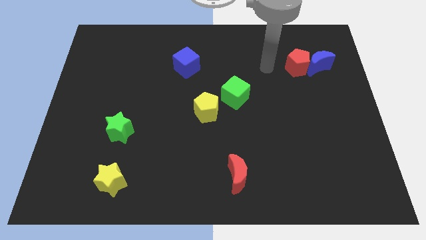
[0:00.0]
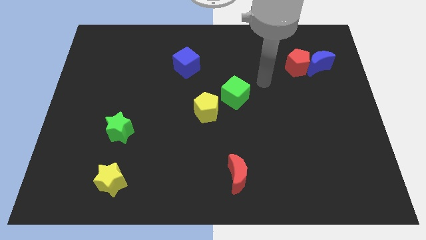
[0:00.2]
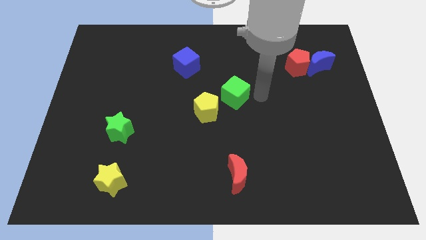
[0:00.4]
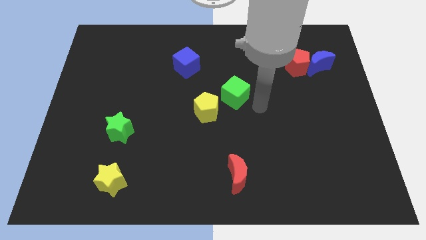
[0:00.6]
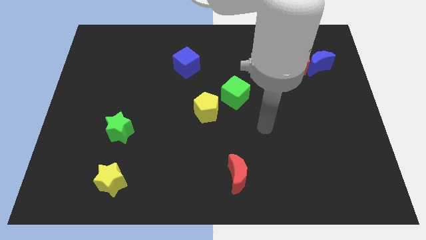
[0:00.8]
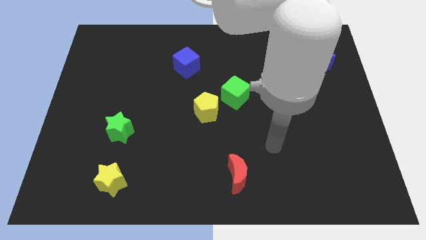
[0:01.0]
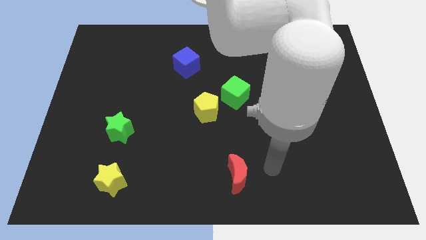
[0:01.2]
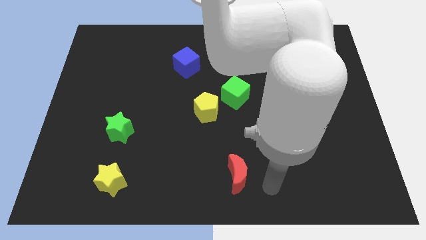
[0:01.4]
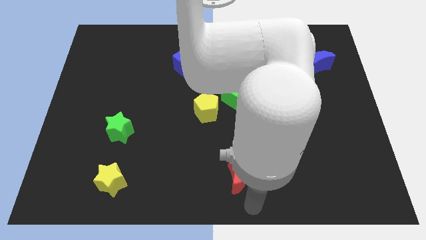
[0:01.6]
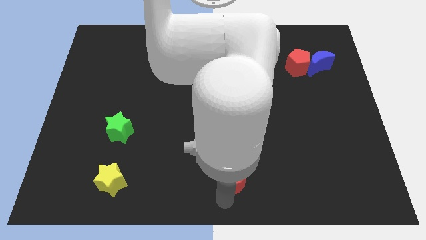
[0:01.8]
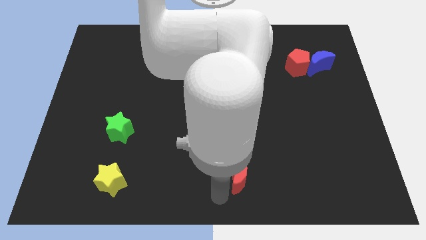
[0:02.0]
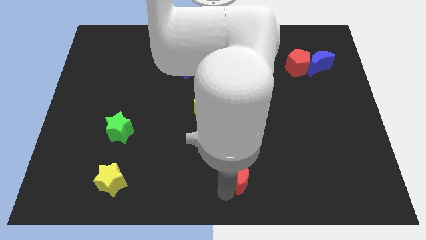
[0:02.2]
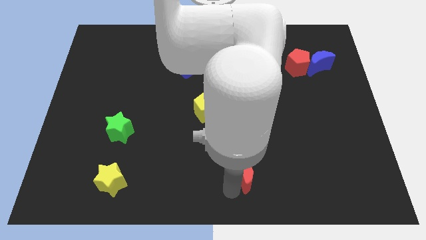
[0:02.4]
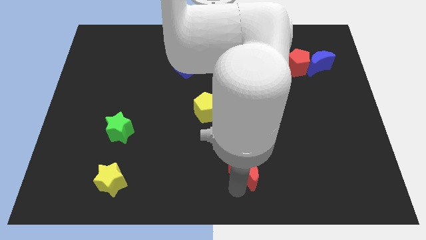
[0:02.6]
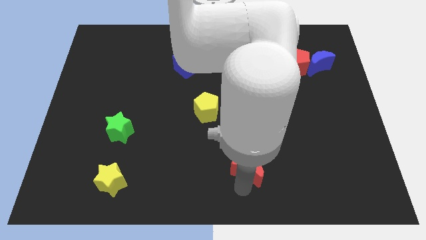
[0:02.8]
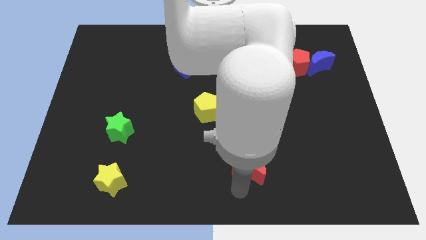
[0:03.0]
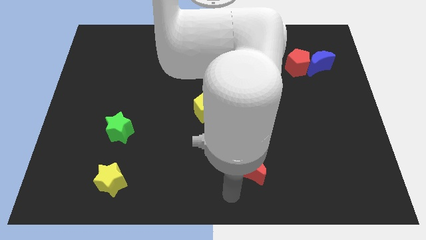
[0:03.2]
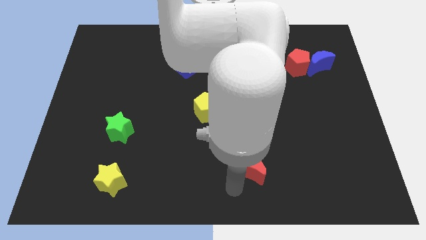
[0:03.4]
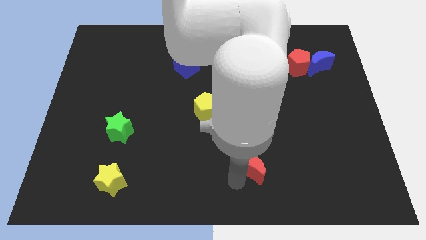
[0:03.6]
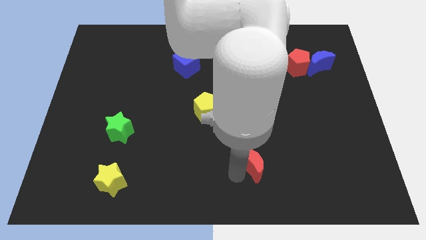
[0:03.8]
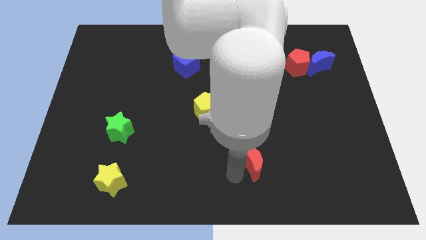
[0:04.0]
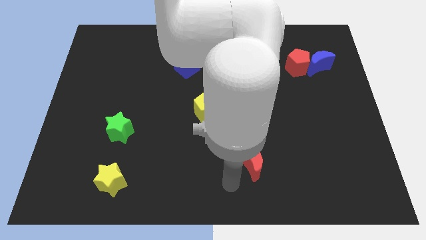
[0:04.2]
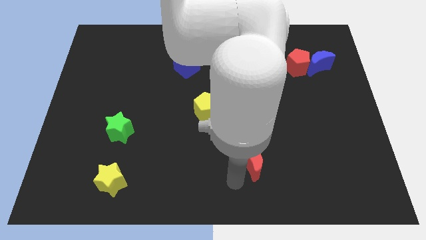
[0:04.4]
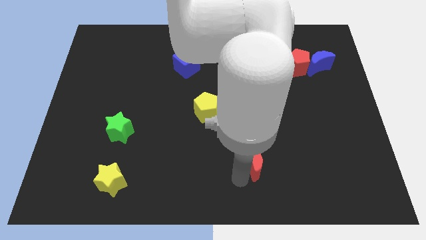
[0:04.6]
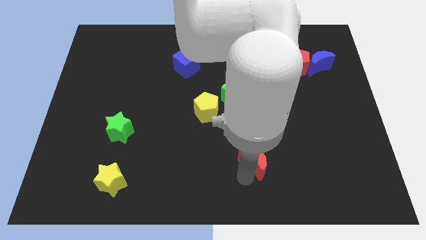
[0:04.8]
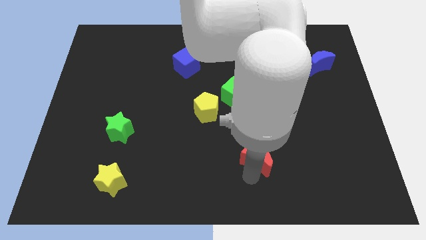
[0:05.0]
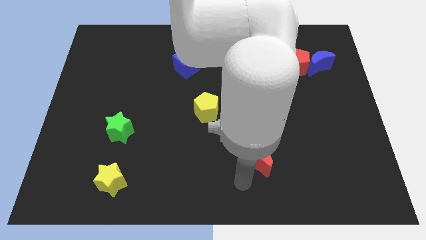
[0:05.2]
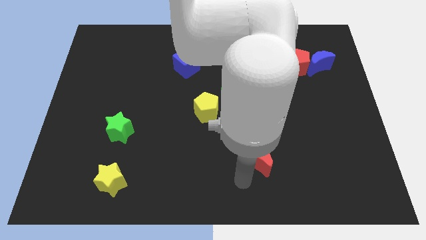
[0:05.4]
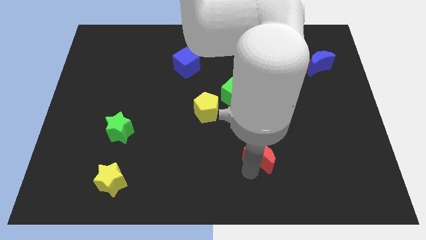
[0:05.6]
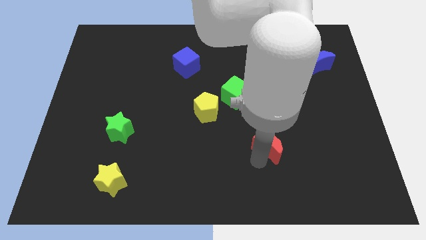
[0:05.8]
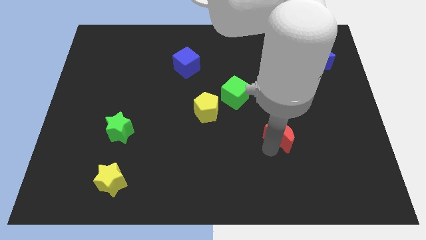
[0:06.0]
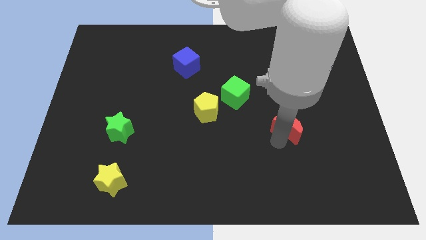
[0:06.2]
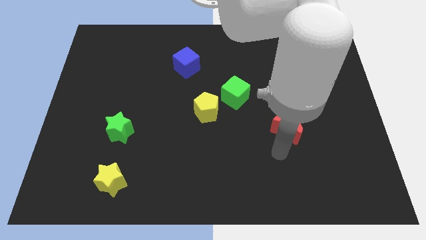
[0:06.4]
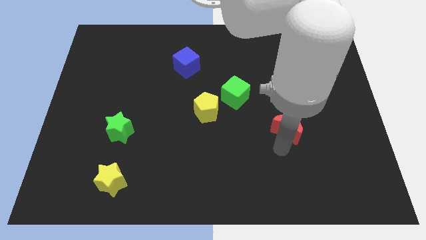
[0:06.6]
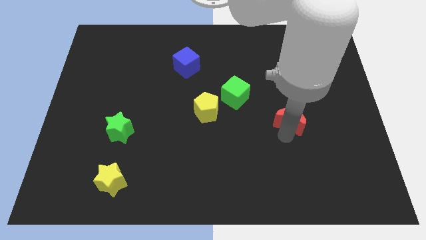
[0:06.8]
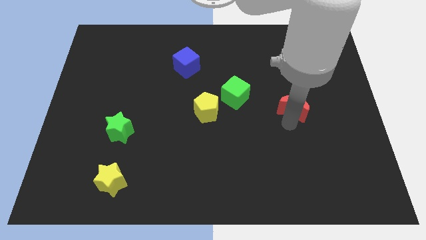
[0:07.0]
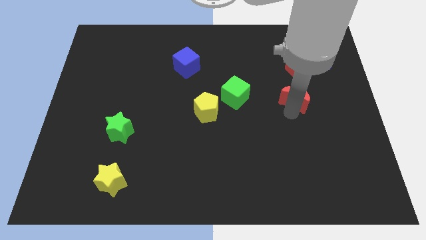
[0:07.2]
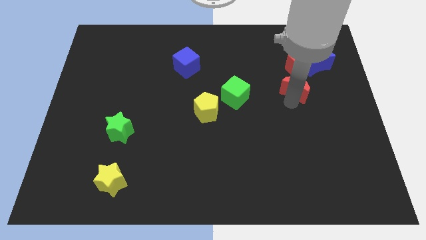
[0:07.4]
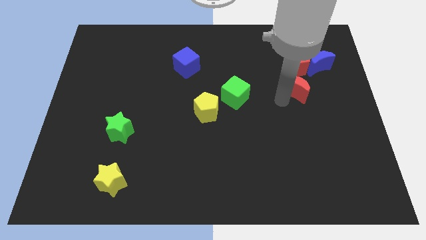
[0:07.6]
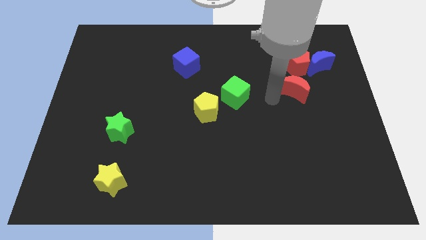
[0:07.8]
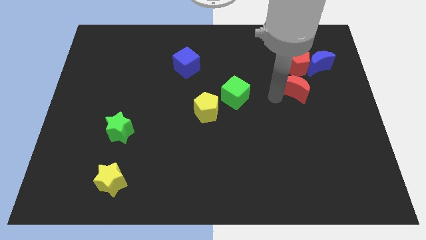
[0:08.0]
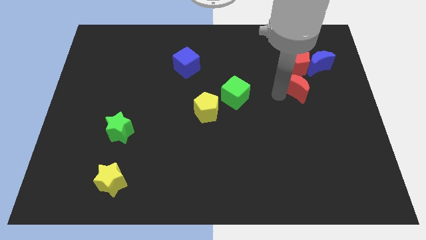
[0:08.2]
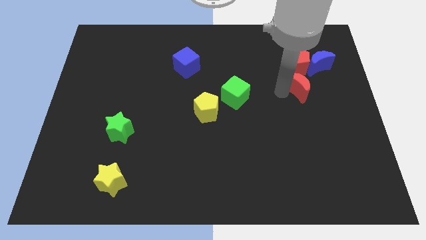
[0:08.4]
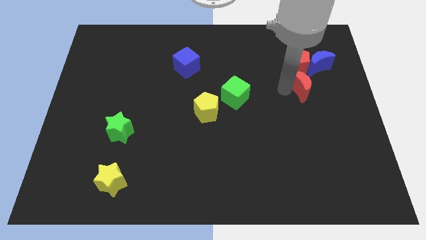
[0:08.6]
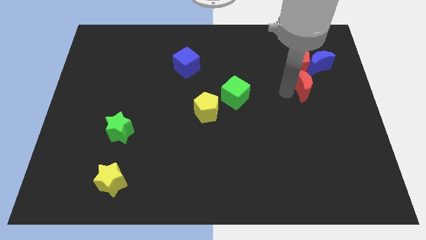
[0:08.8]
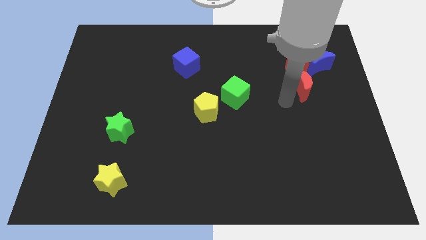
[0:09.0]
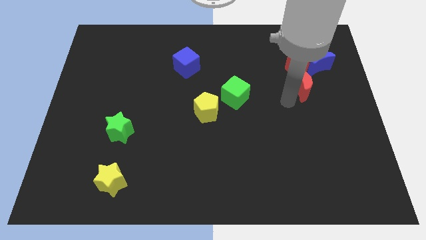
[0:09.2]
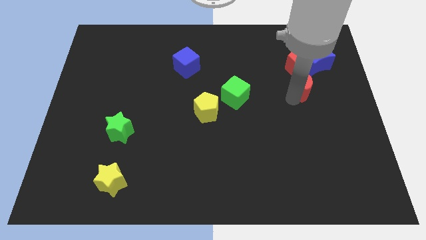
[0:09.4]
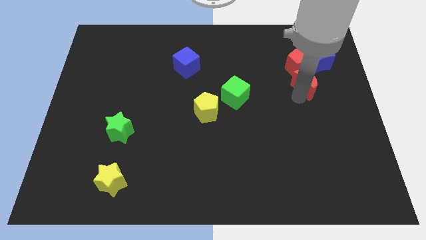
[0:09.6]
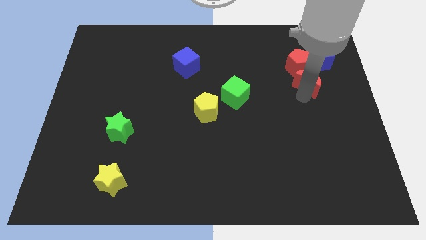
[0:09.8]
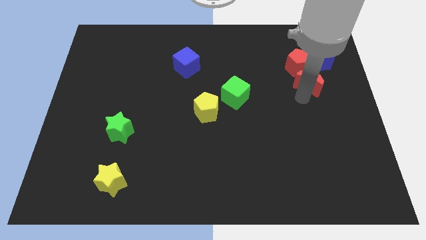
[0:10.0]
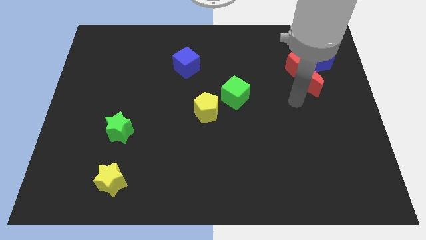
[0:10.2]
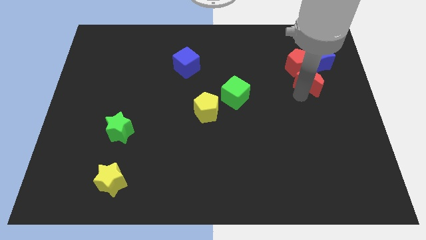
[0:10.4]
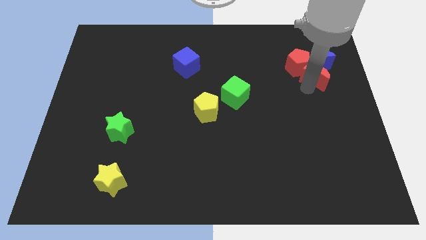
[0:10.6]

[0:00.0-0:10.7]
move the red moon towards the blue moon

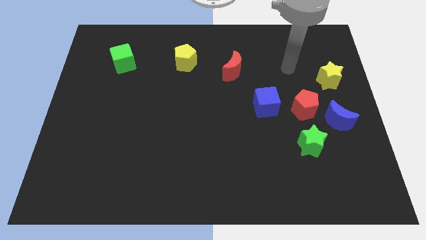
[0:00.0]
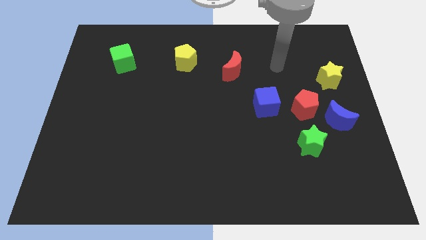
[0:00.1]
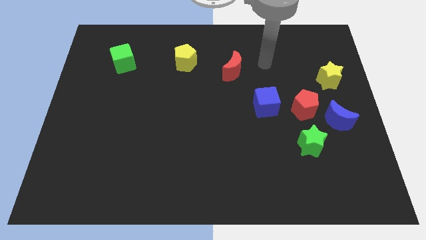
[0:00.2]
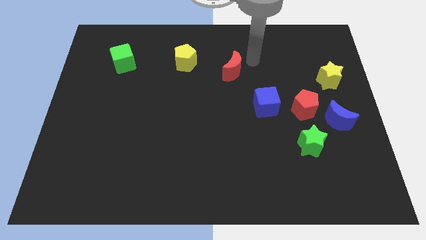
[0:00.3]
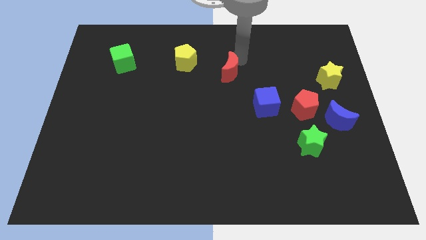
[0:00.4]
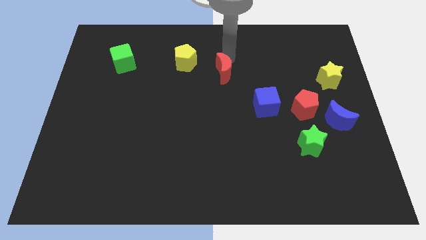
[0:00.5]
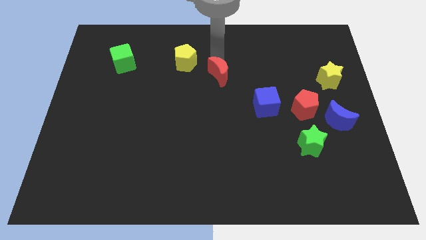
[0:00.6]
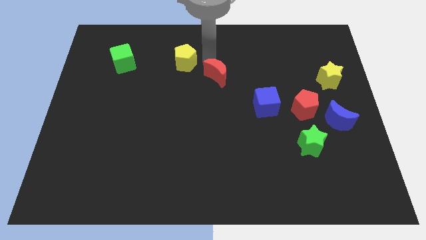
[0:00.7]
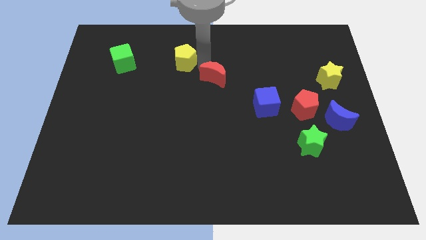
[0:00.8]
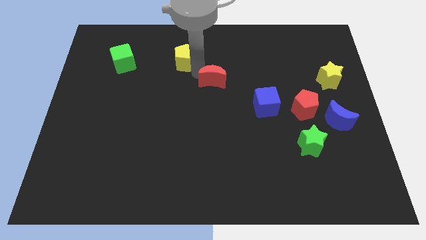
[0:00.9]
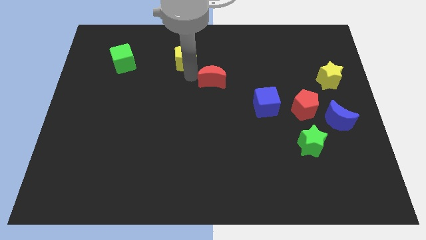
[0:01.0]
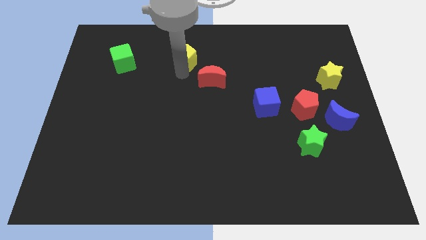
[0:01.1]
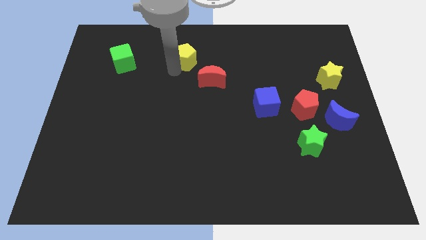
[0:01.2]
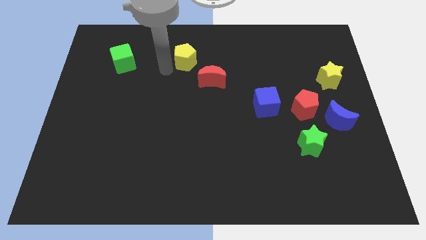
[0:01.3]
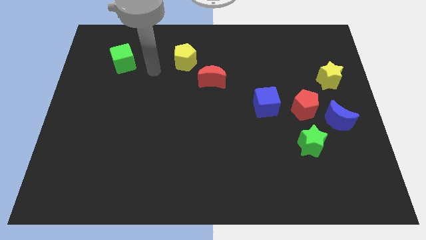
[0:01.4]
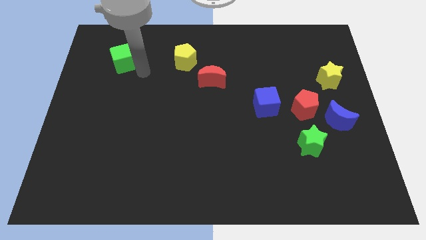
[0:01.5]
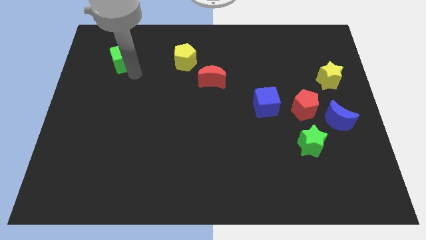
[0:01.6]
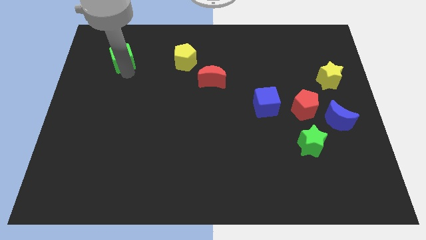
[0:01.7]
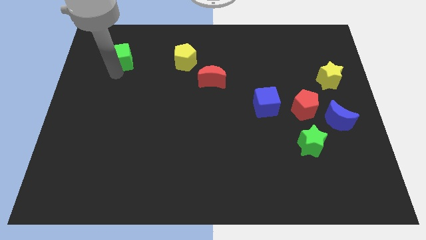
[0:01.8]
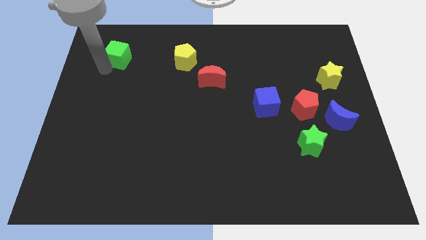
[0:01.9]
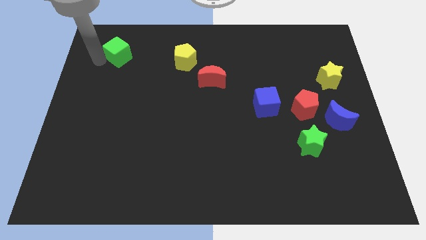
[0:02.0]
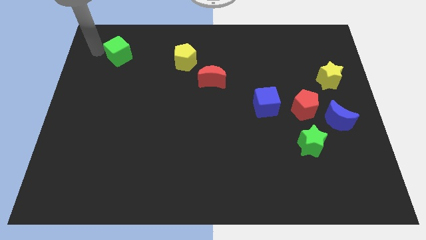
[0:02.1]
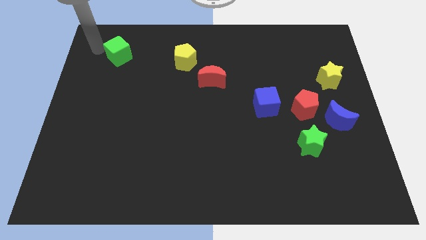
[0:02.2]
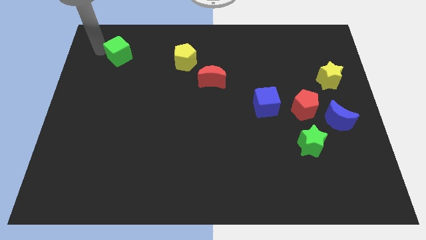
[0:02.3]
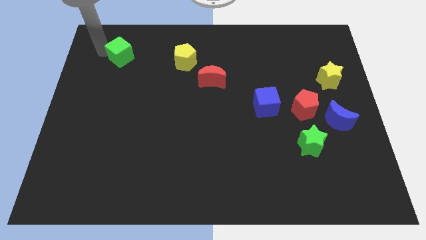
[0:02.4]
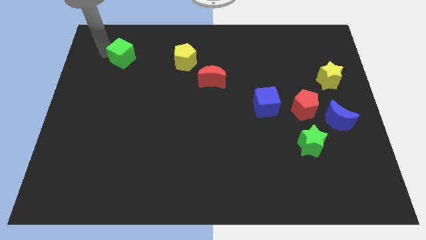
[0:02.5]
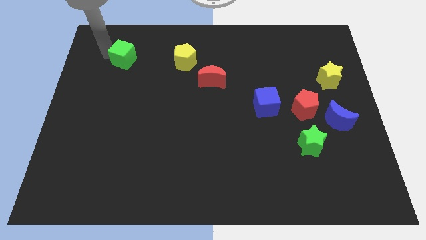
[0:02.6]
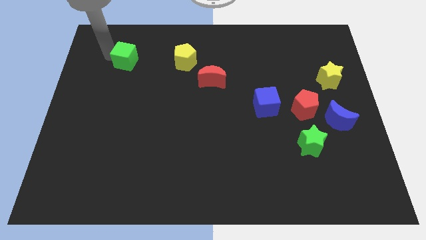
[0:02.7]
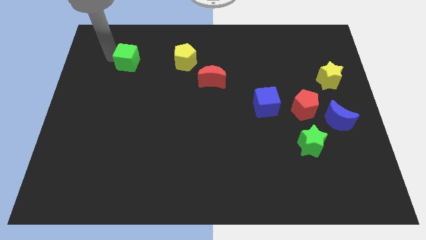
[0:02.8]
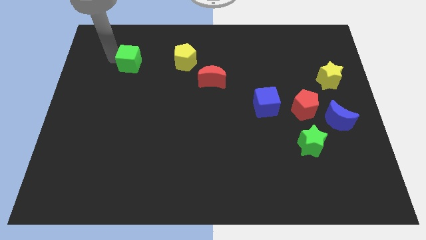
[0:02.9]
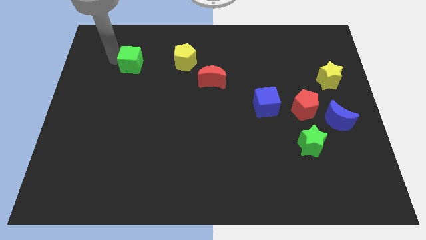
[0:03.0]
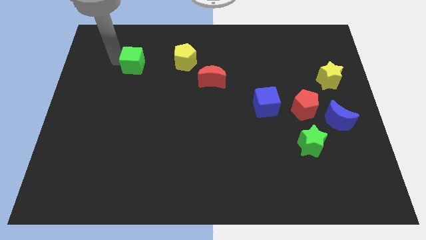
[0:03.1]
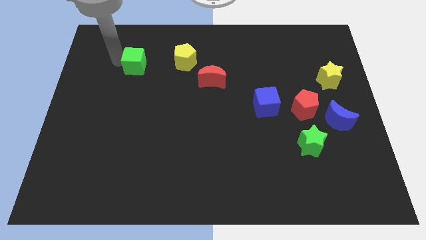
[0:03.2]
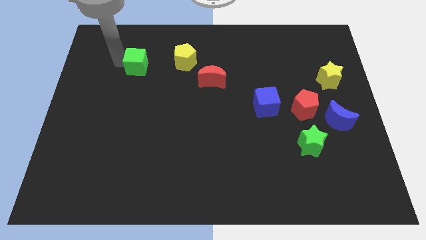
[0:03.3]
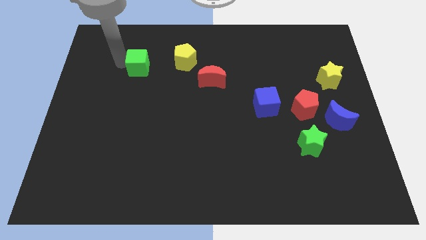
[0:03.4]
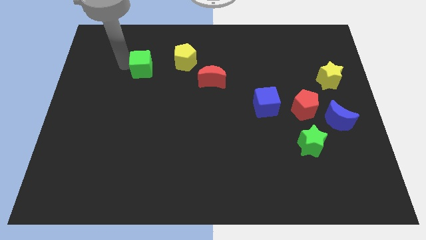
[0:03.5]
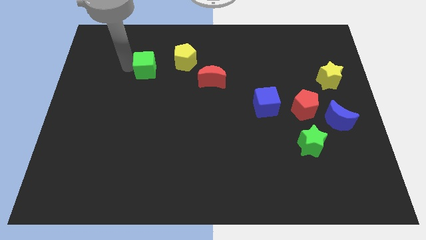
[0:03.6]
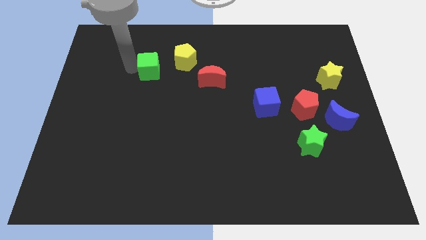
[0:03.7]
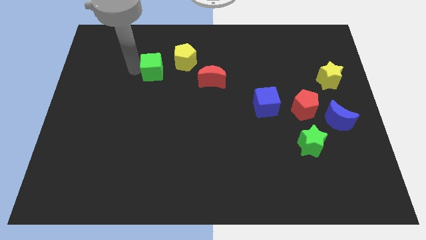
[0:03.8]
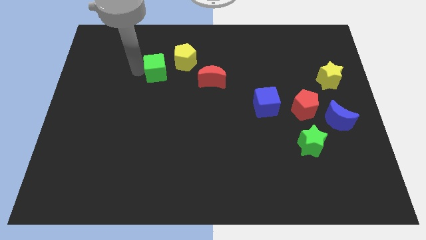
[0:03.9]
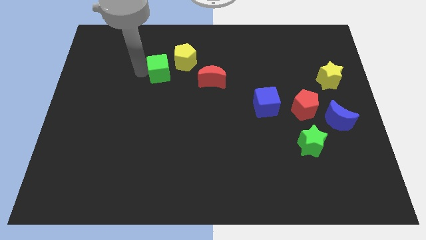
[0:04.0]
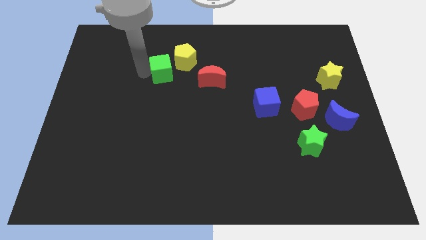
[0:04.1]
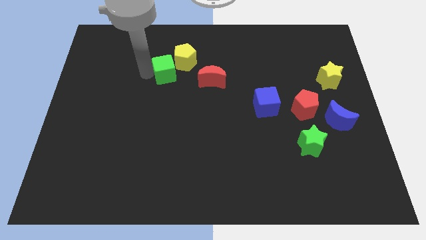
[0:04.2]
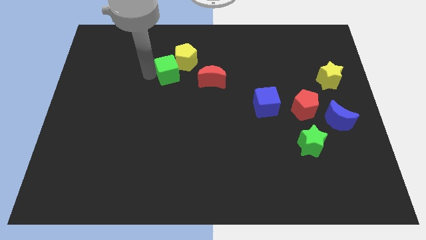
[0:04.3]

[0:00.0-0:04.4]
move the green cube next to the yellow pentagon
